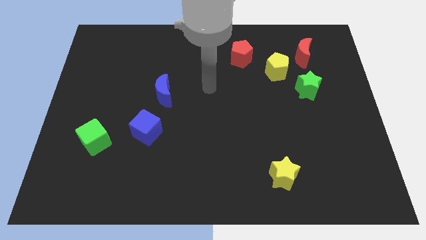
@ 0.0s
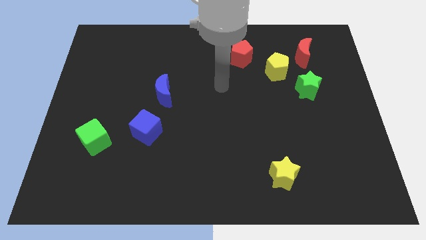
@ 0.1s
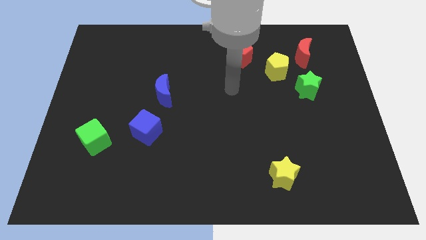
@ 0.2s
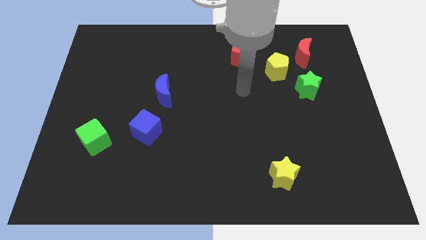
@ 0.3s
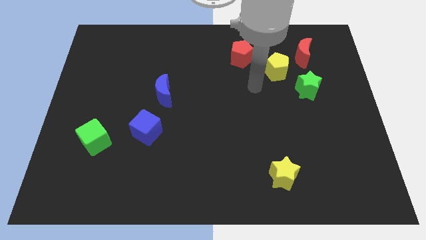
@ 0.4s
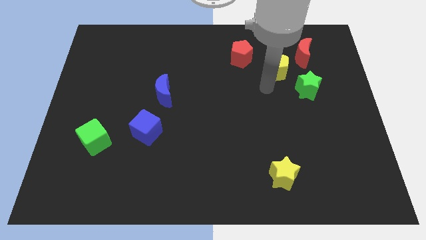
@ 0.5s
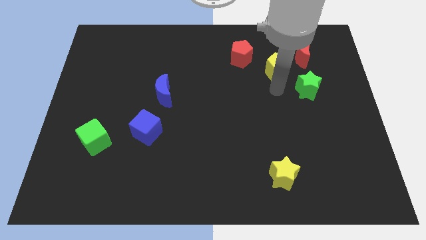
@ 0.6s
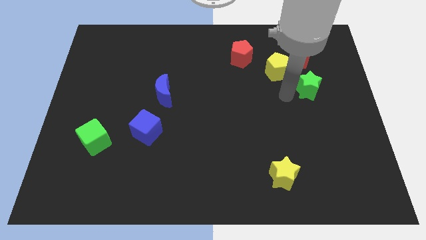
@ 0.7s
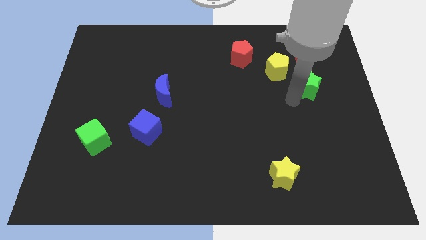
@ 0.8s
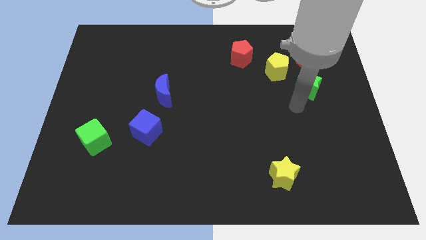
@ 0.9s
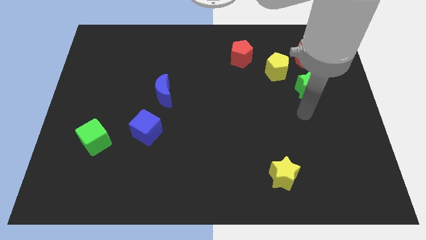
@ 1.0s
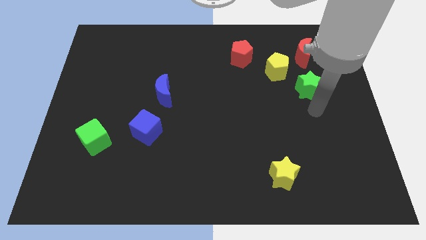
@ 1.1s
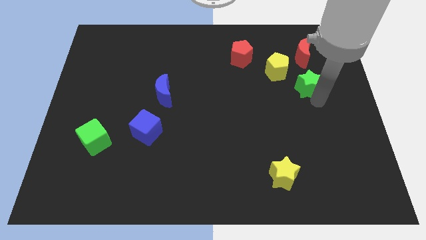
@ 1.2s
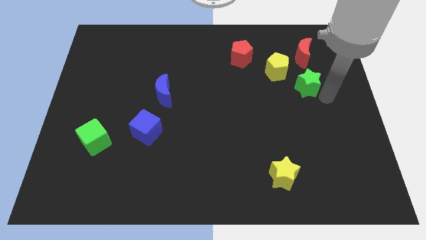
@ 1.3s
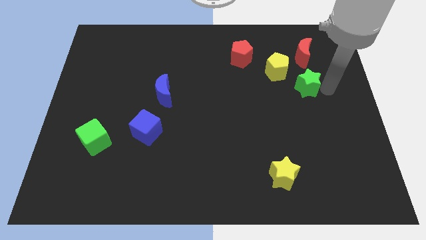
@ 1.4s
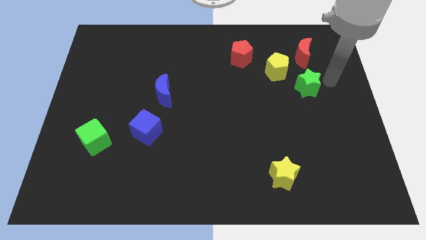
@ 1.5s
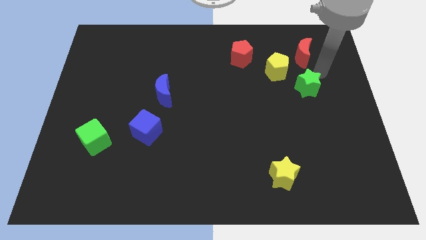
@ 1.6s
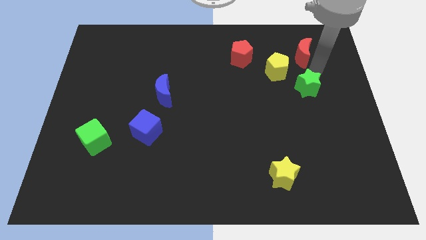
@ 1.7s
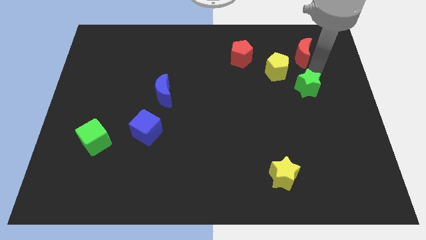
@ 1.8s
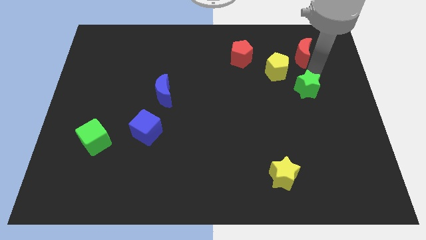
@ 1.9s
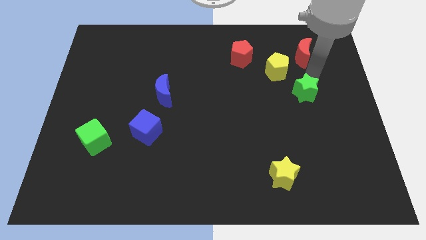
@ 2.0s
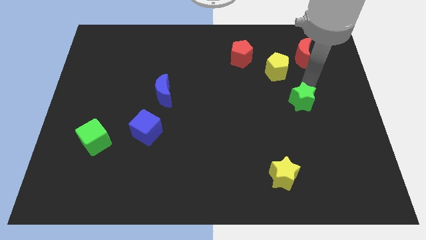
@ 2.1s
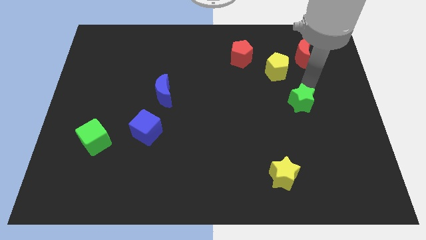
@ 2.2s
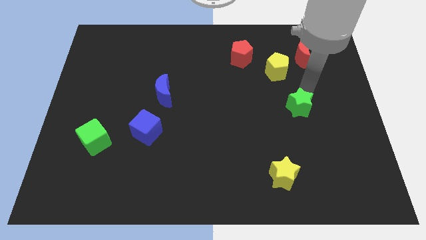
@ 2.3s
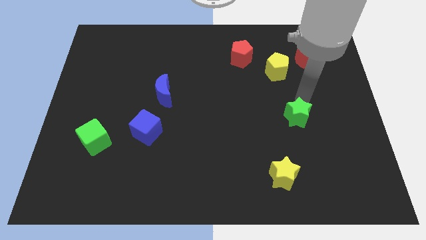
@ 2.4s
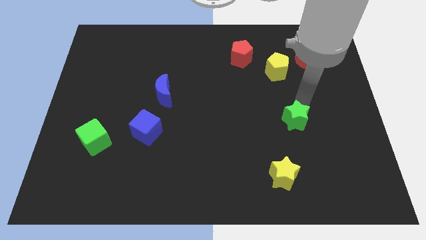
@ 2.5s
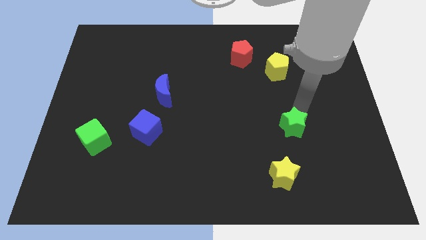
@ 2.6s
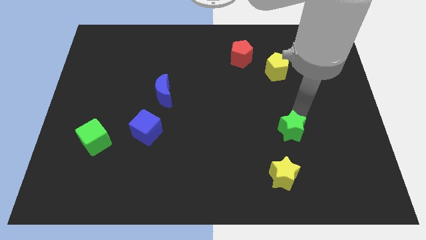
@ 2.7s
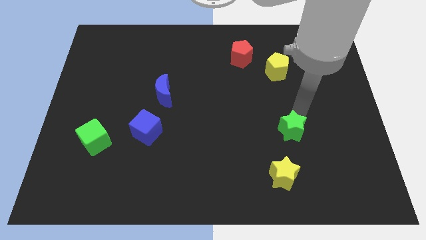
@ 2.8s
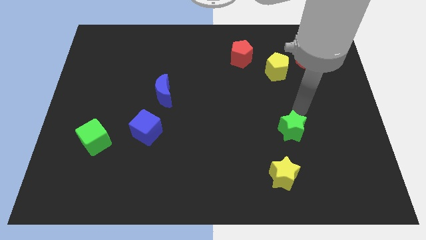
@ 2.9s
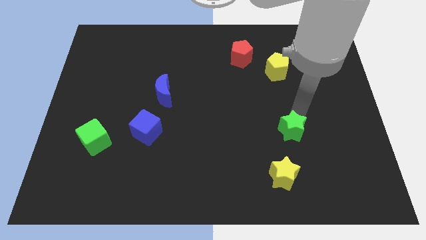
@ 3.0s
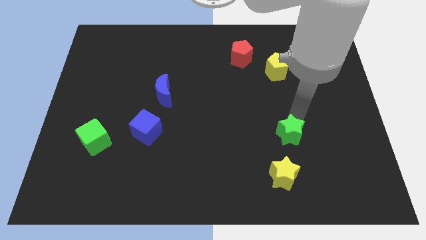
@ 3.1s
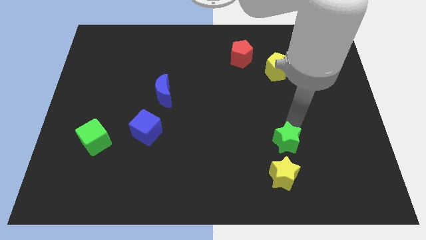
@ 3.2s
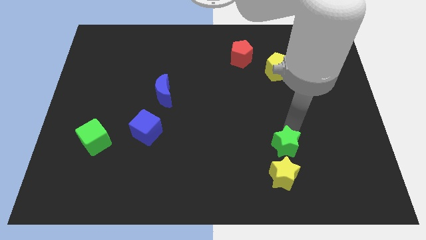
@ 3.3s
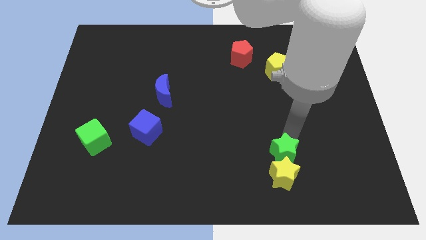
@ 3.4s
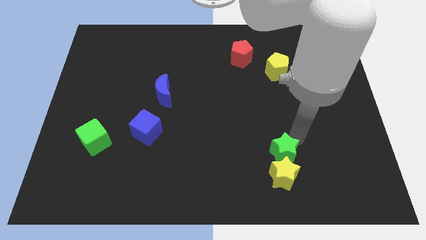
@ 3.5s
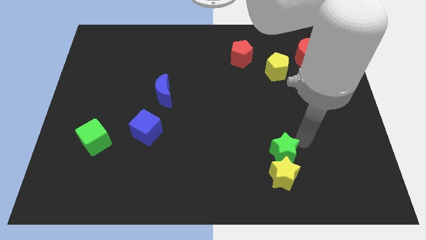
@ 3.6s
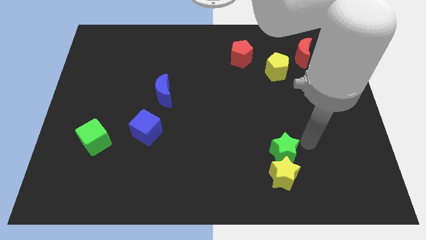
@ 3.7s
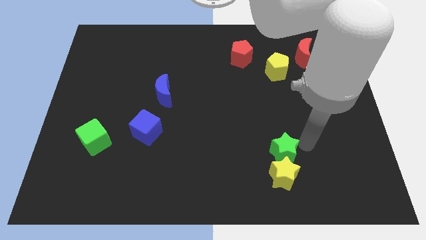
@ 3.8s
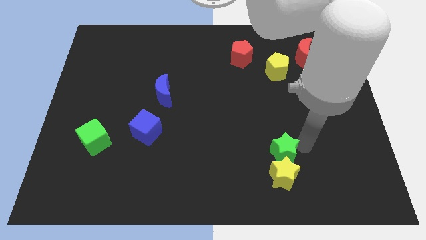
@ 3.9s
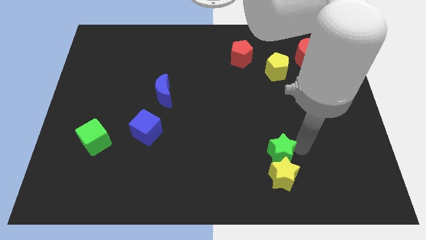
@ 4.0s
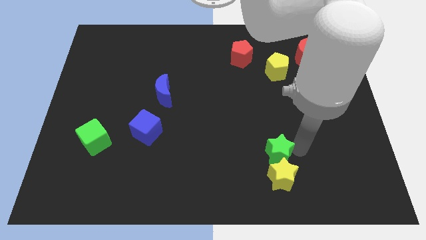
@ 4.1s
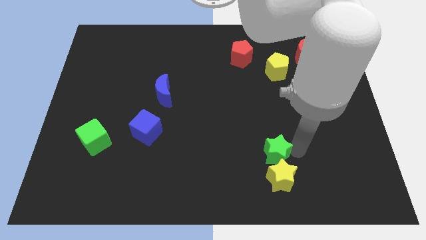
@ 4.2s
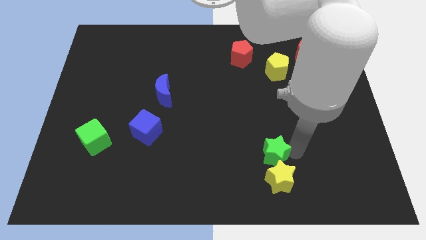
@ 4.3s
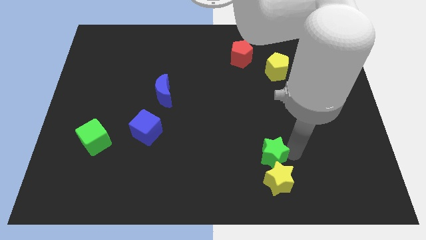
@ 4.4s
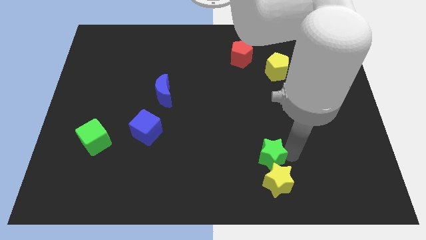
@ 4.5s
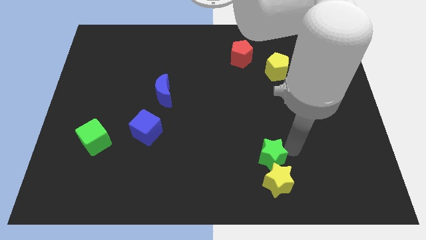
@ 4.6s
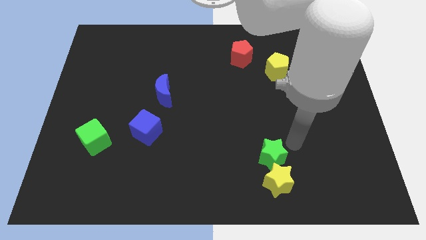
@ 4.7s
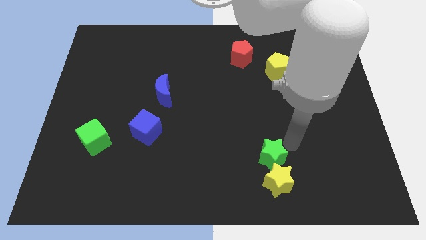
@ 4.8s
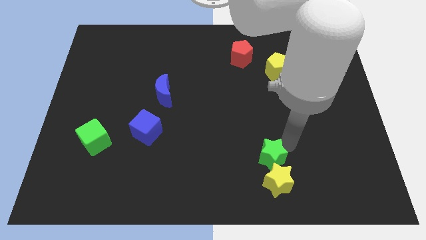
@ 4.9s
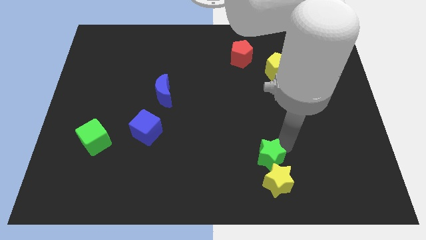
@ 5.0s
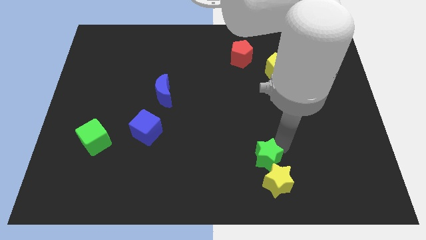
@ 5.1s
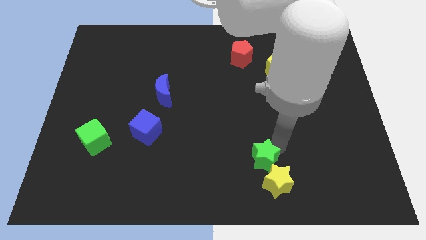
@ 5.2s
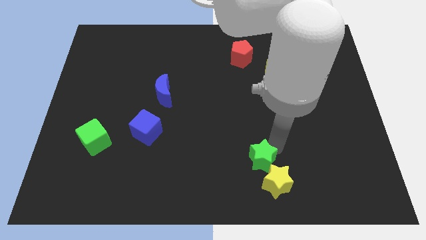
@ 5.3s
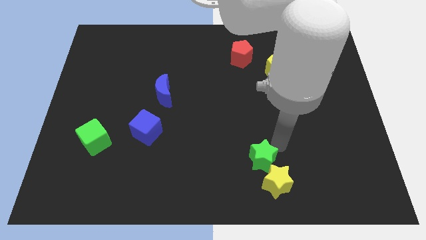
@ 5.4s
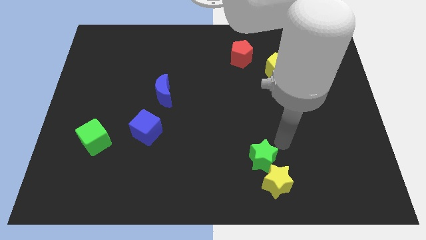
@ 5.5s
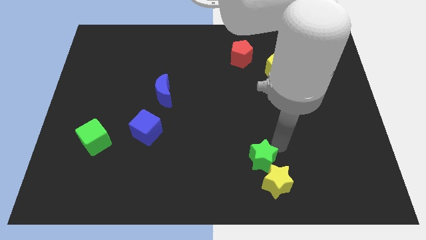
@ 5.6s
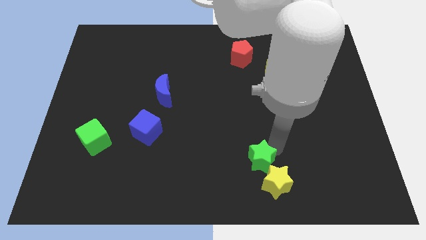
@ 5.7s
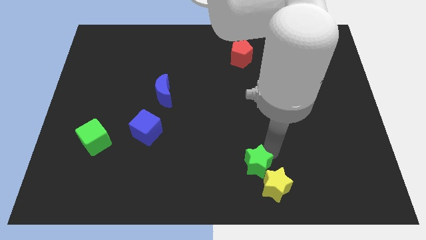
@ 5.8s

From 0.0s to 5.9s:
put the green star to the bottom

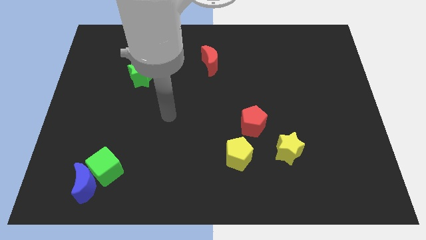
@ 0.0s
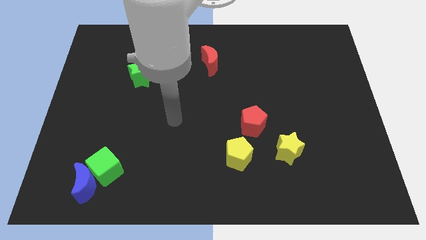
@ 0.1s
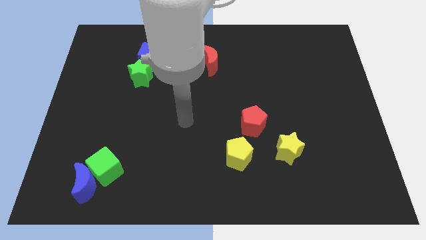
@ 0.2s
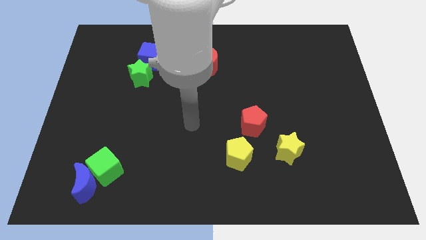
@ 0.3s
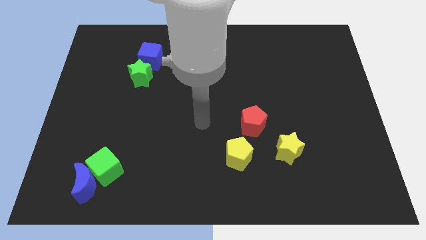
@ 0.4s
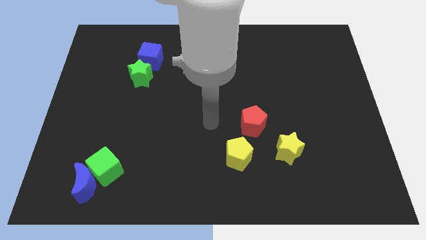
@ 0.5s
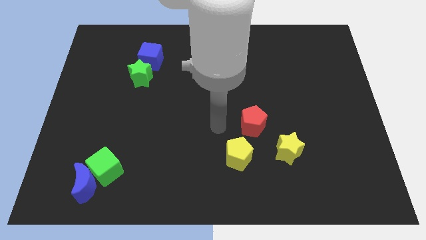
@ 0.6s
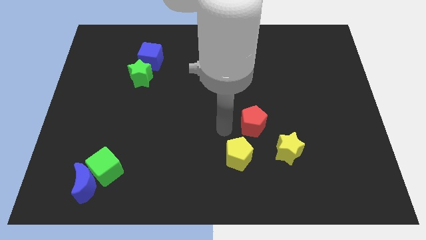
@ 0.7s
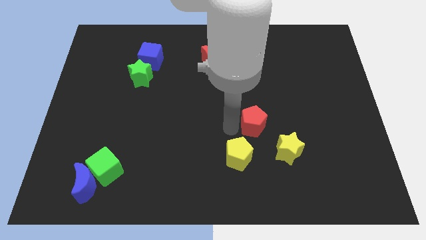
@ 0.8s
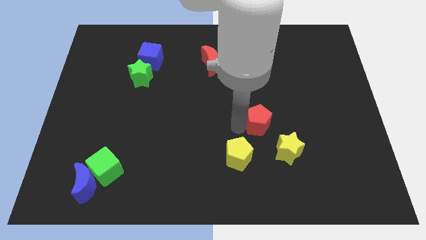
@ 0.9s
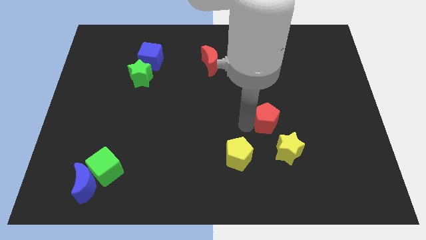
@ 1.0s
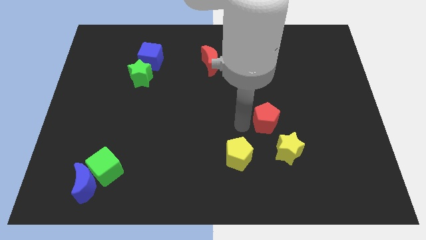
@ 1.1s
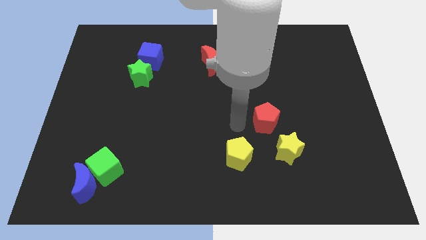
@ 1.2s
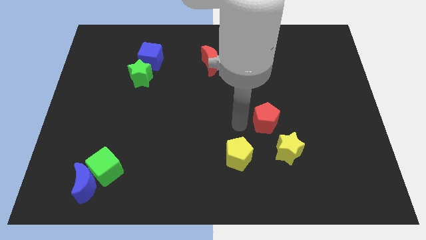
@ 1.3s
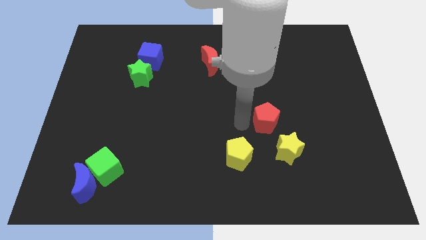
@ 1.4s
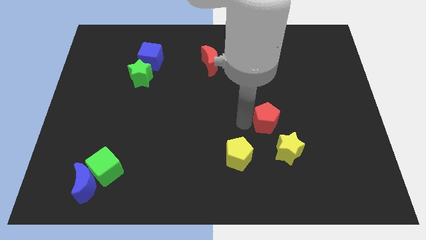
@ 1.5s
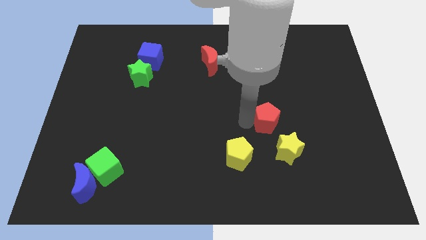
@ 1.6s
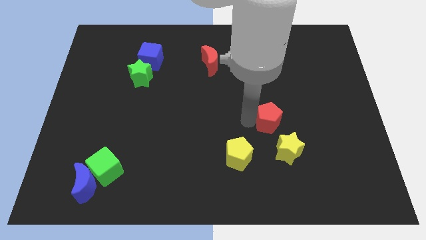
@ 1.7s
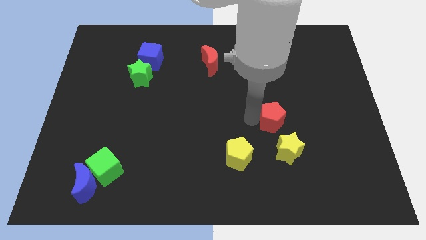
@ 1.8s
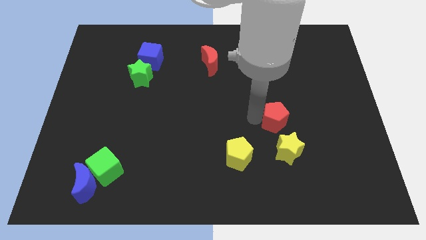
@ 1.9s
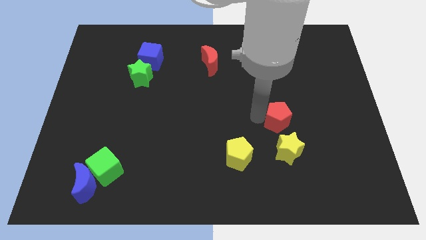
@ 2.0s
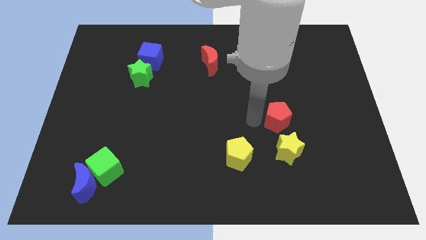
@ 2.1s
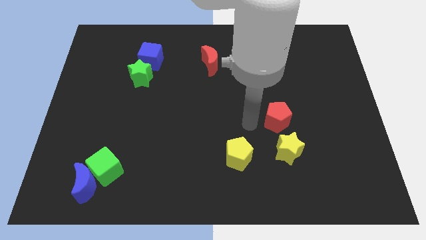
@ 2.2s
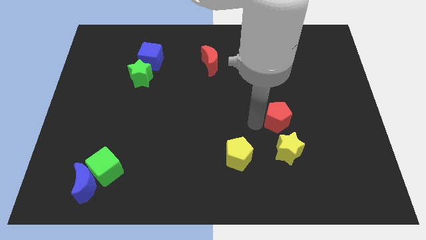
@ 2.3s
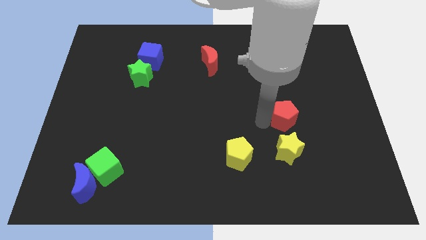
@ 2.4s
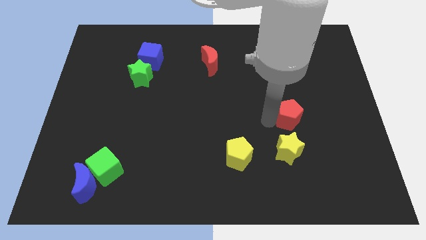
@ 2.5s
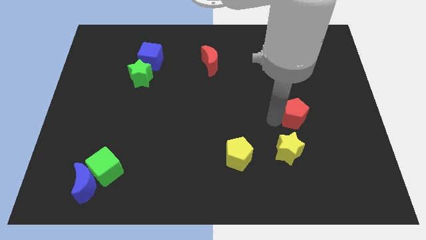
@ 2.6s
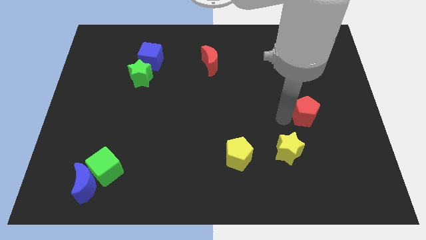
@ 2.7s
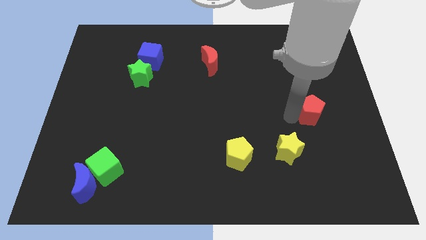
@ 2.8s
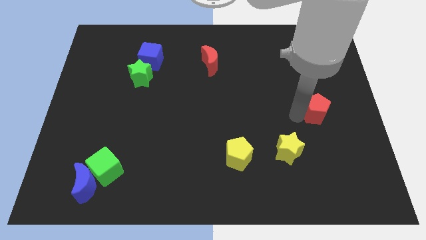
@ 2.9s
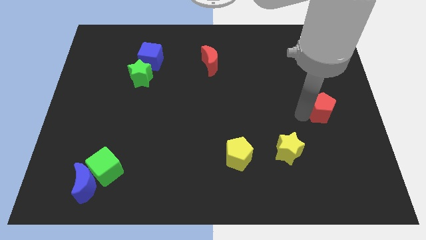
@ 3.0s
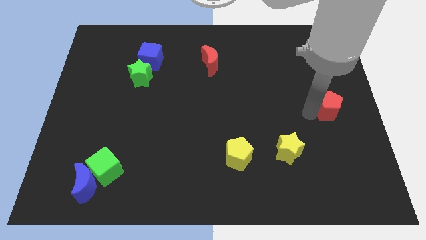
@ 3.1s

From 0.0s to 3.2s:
move the red pentagon to the center right
